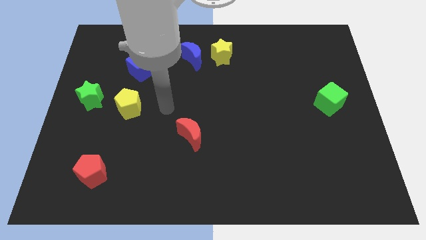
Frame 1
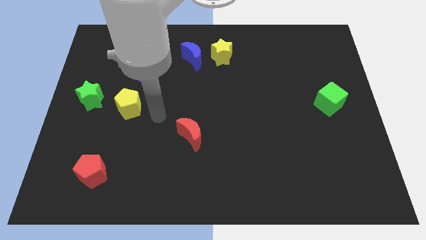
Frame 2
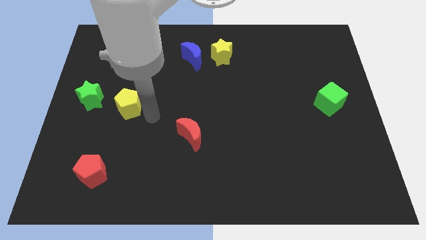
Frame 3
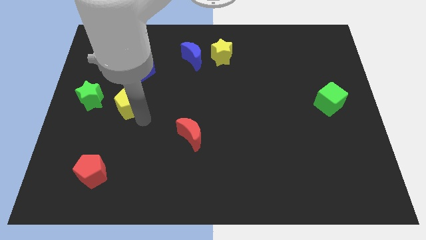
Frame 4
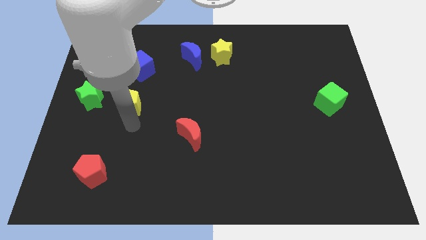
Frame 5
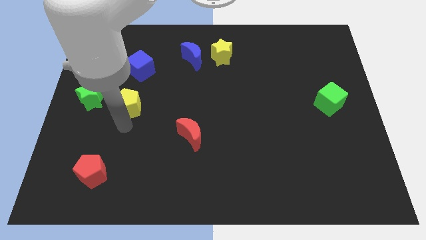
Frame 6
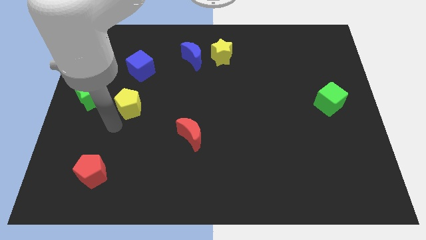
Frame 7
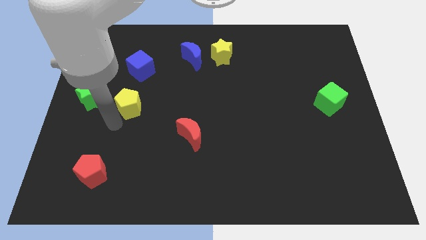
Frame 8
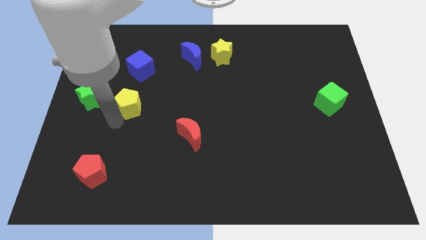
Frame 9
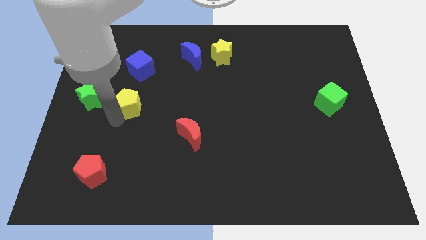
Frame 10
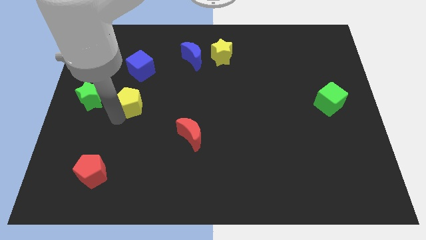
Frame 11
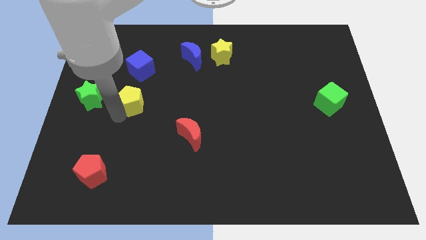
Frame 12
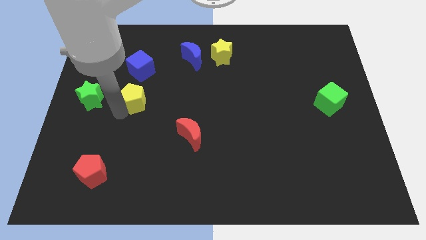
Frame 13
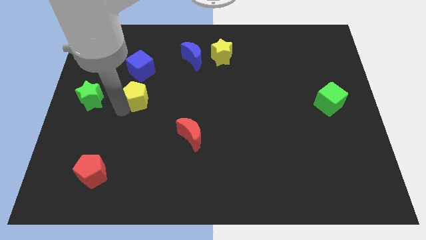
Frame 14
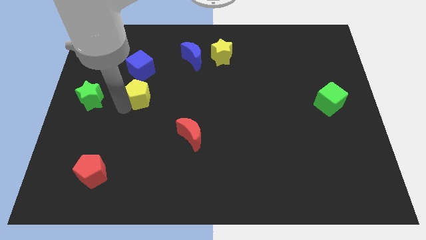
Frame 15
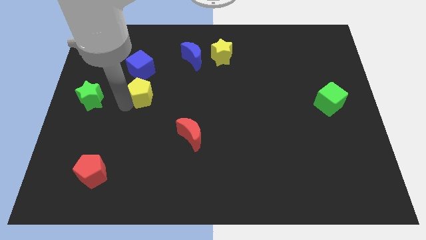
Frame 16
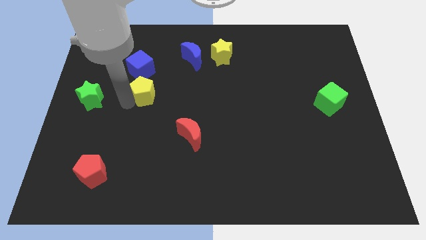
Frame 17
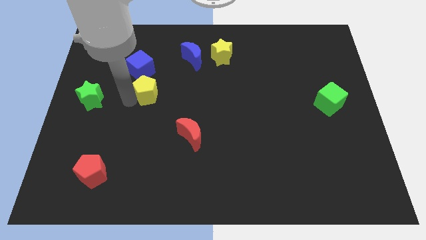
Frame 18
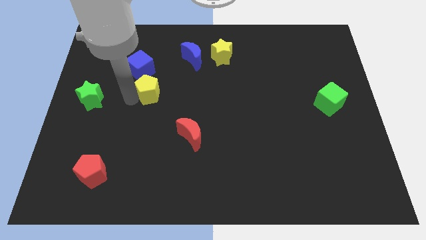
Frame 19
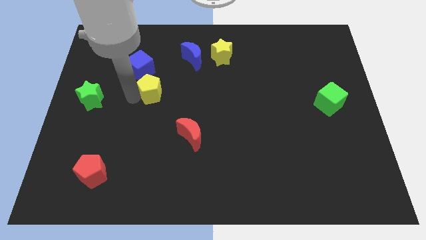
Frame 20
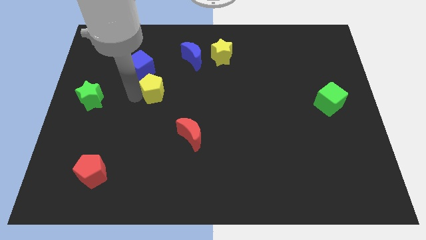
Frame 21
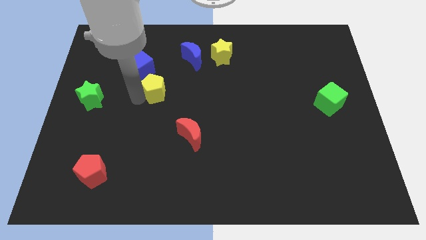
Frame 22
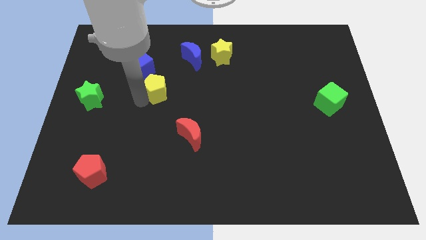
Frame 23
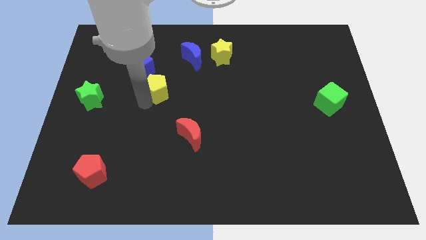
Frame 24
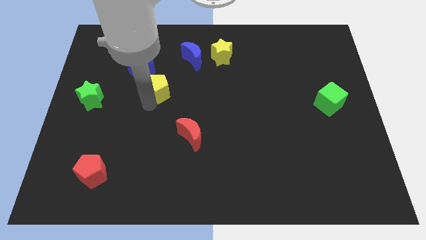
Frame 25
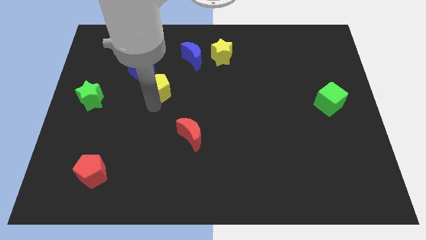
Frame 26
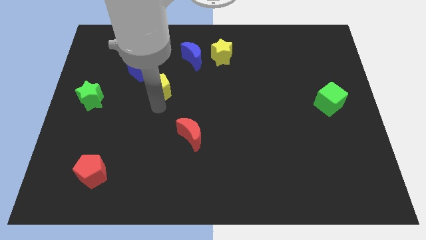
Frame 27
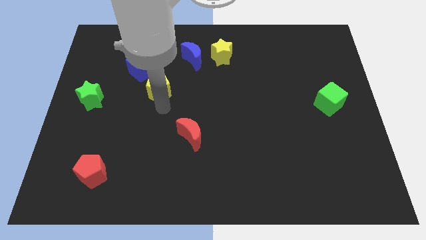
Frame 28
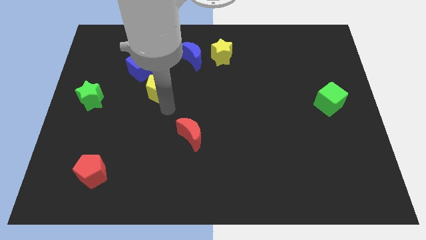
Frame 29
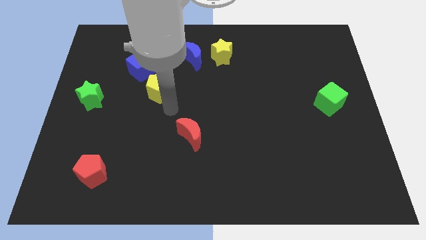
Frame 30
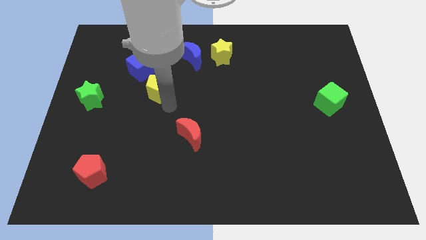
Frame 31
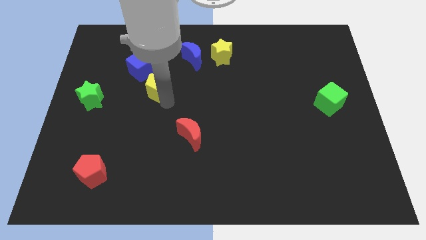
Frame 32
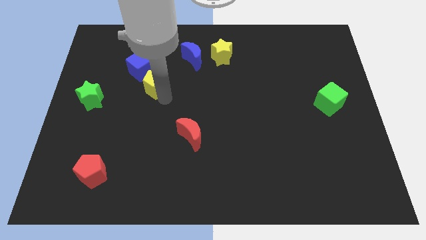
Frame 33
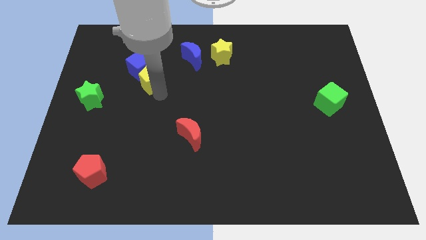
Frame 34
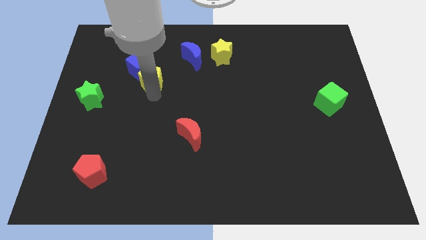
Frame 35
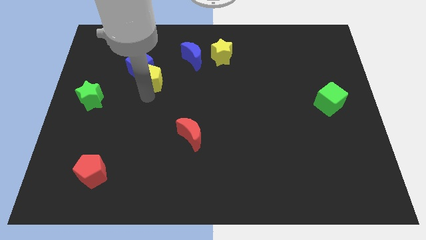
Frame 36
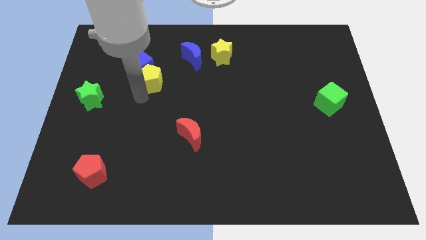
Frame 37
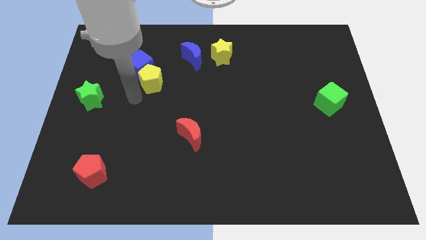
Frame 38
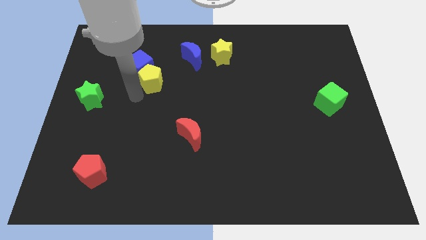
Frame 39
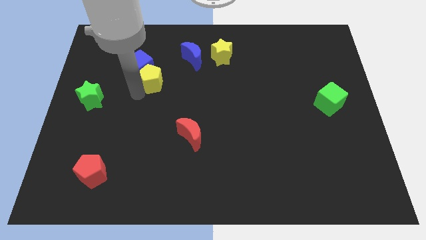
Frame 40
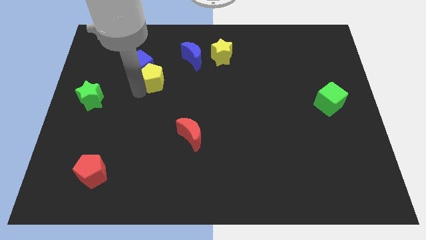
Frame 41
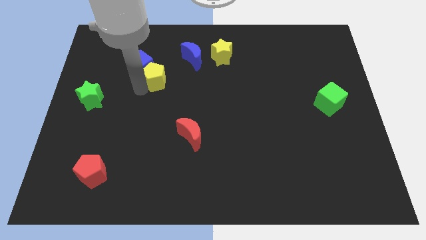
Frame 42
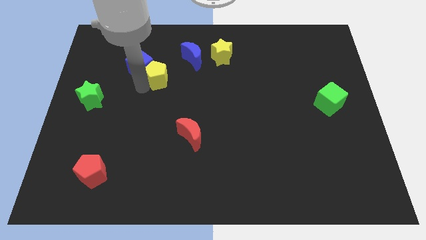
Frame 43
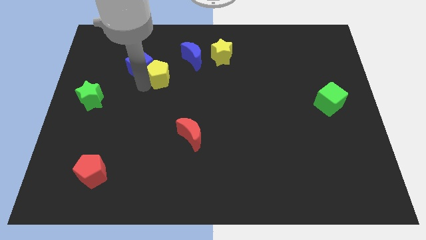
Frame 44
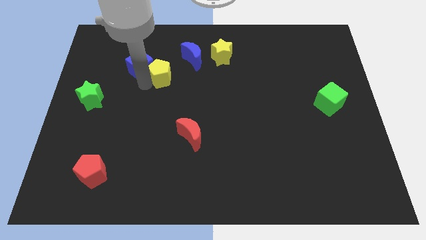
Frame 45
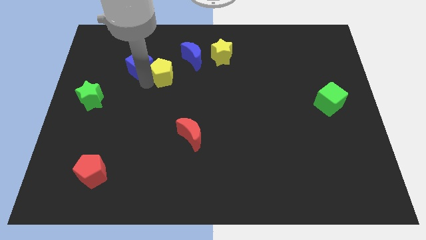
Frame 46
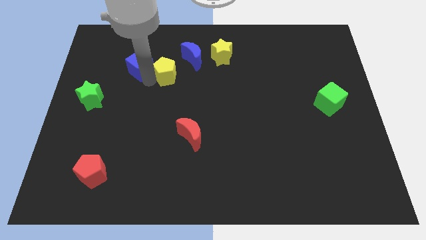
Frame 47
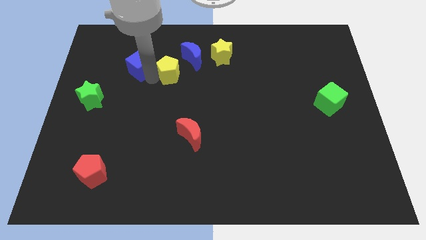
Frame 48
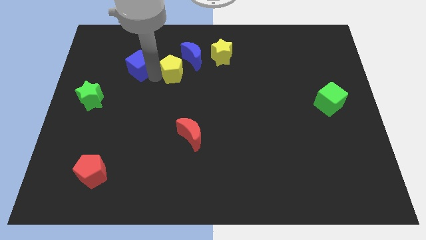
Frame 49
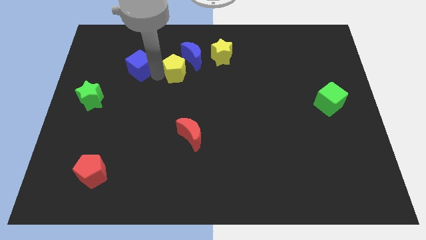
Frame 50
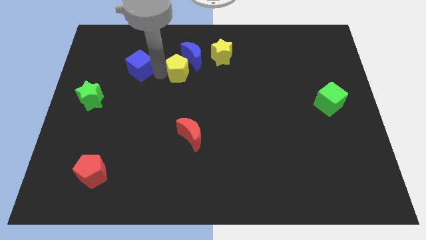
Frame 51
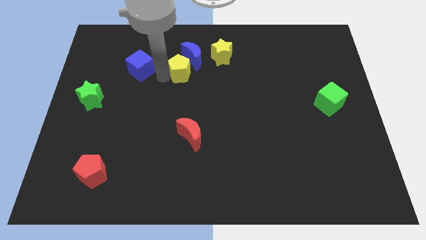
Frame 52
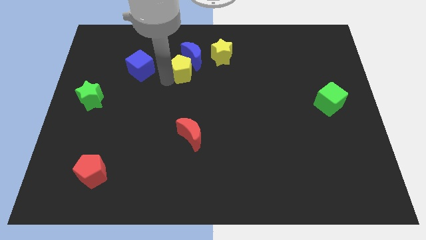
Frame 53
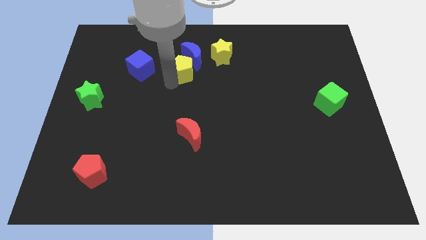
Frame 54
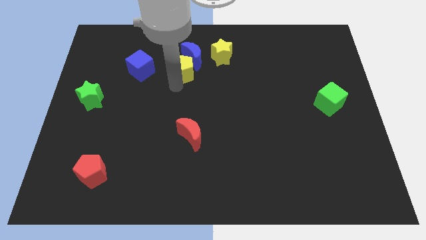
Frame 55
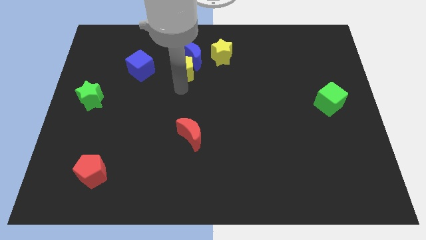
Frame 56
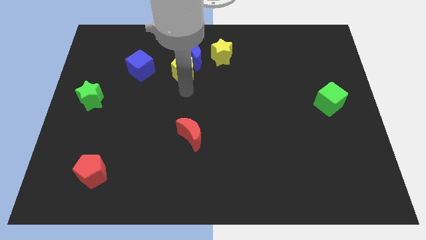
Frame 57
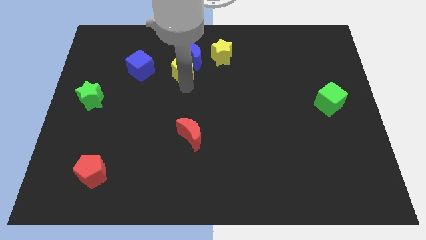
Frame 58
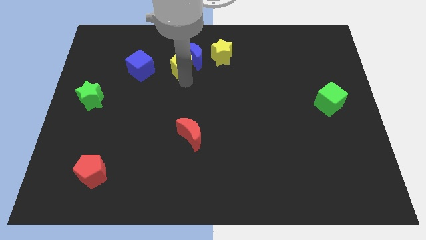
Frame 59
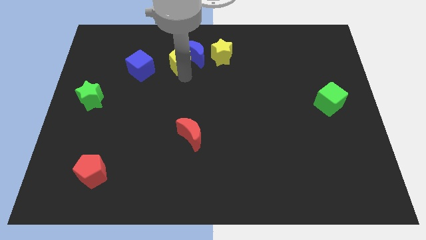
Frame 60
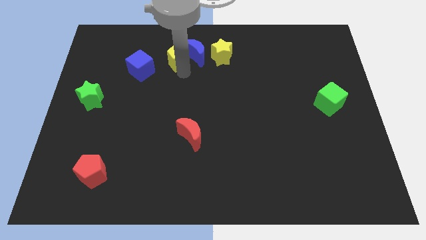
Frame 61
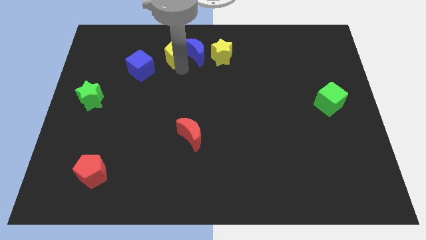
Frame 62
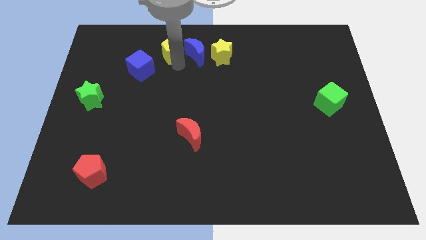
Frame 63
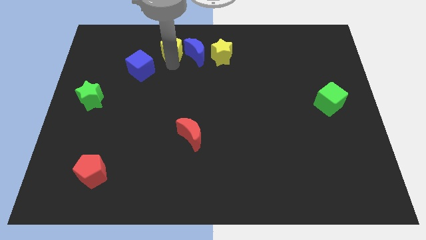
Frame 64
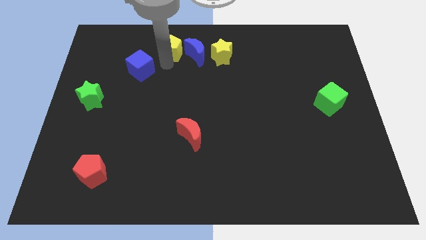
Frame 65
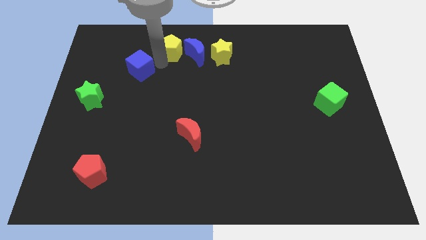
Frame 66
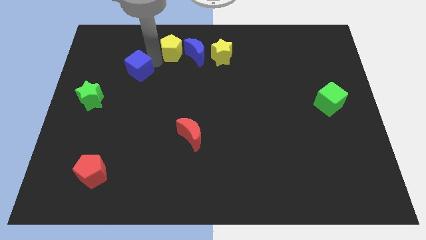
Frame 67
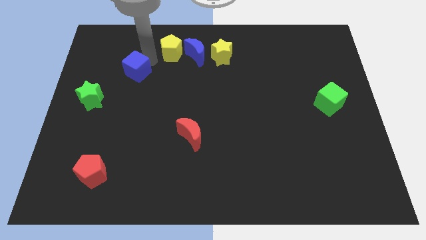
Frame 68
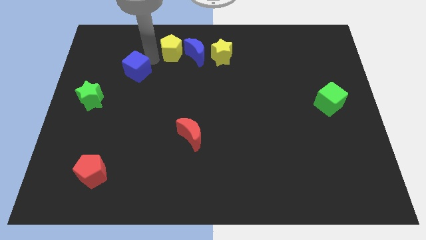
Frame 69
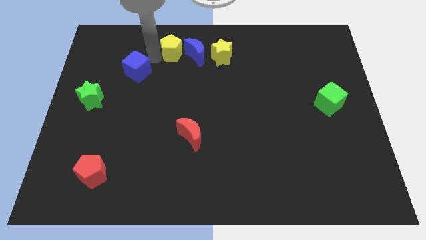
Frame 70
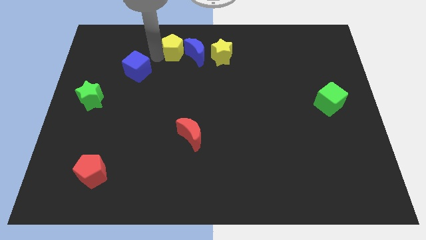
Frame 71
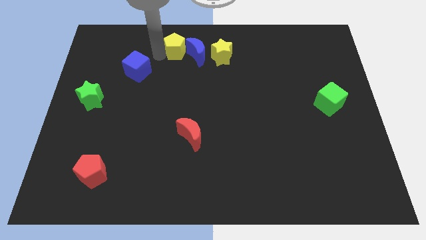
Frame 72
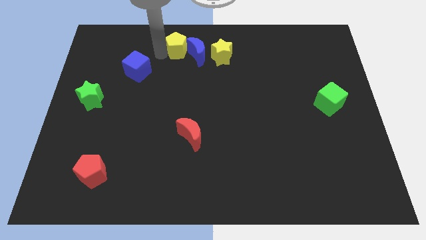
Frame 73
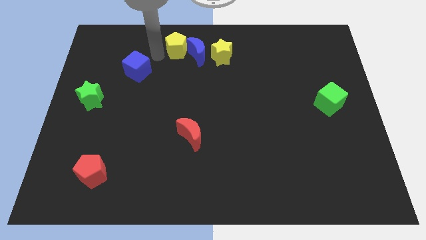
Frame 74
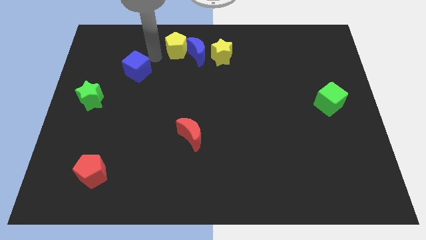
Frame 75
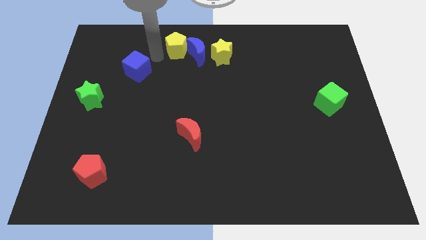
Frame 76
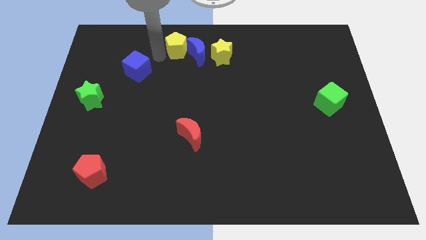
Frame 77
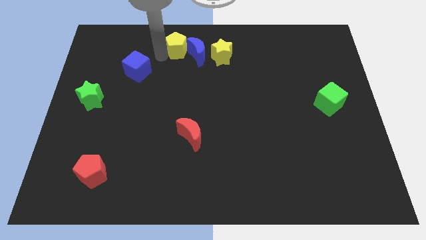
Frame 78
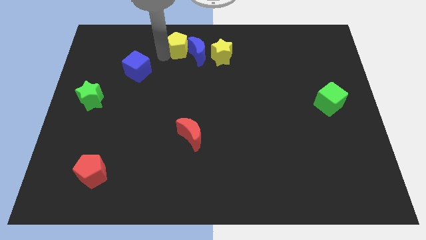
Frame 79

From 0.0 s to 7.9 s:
move the yellow pentagon to the top side
